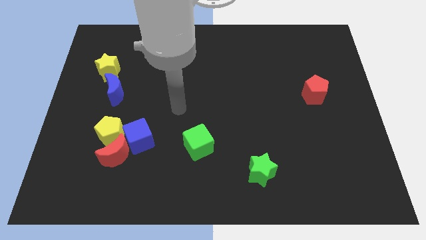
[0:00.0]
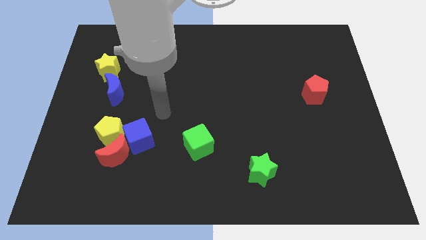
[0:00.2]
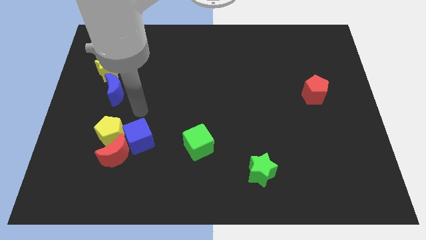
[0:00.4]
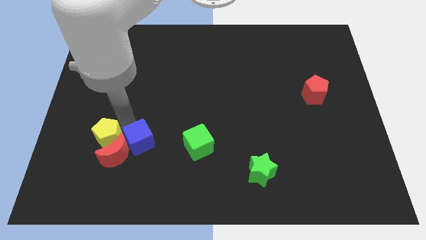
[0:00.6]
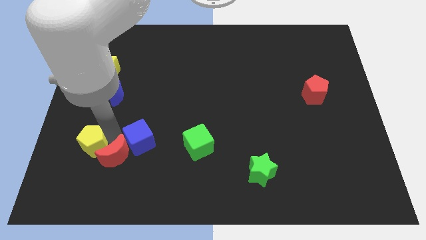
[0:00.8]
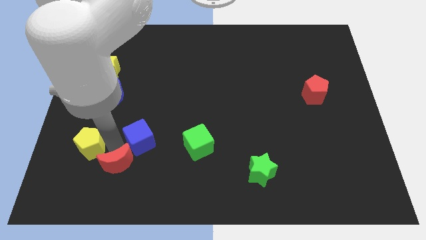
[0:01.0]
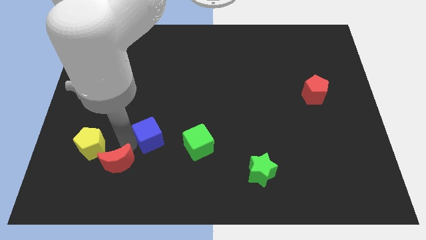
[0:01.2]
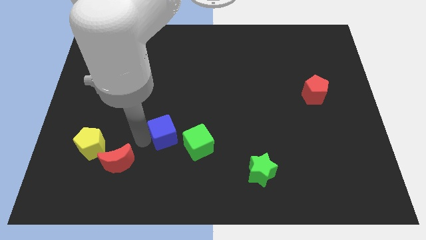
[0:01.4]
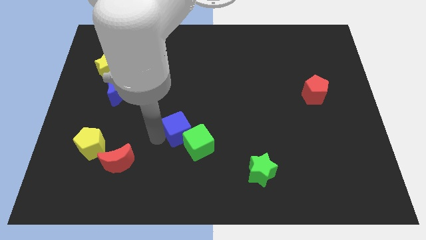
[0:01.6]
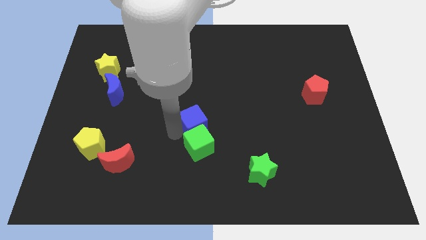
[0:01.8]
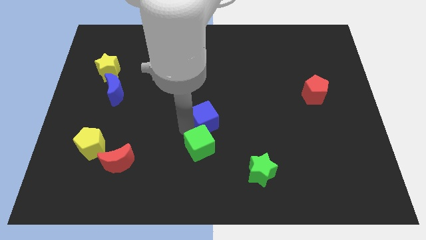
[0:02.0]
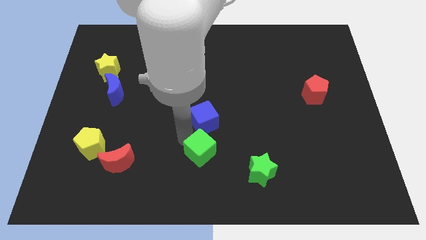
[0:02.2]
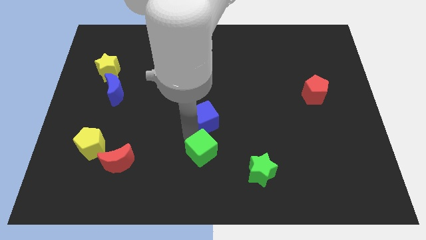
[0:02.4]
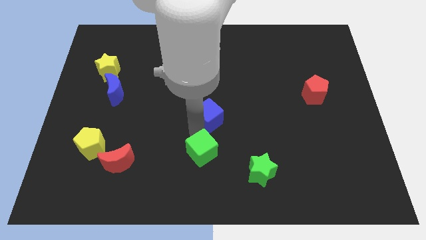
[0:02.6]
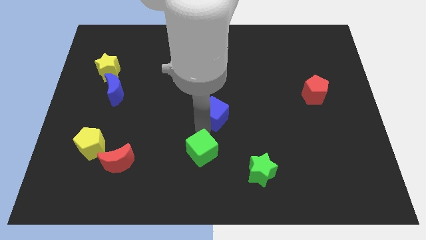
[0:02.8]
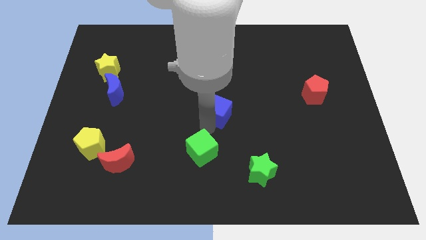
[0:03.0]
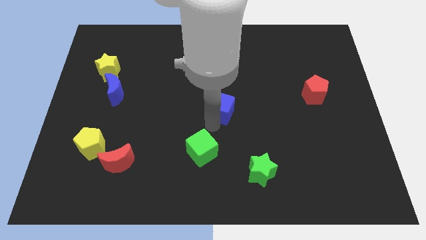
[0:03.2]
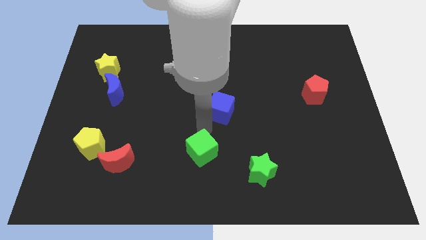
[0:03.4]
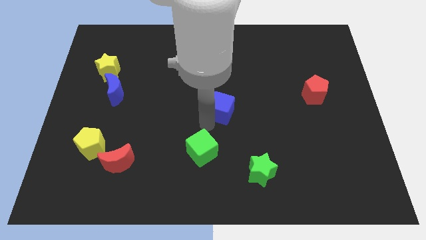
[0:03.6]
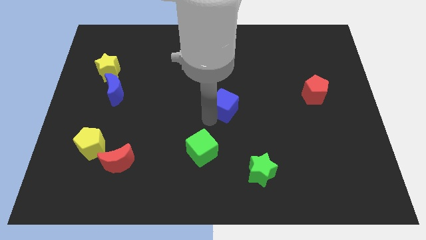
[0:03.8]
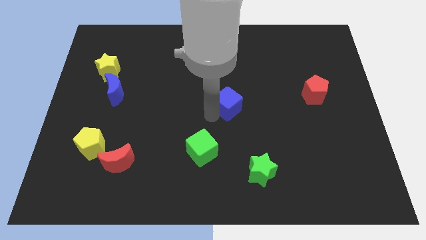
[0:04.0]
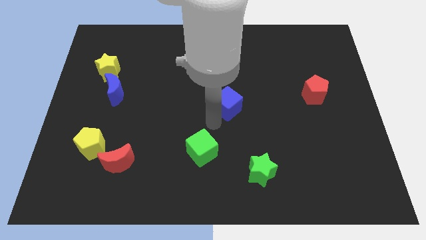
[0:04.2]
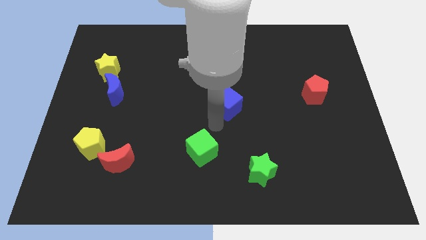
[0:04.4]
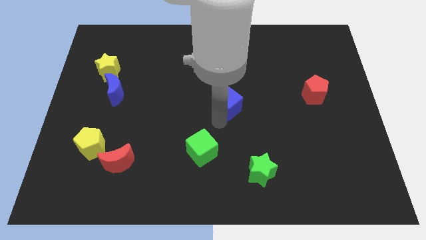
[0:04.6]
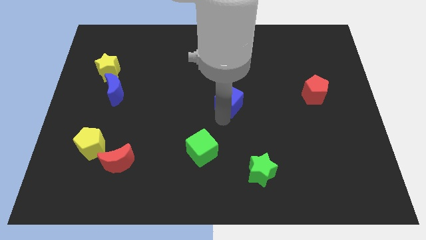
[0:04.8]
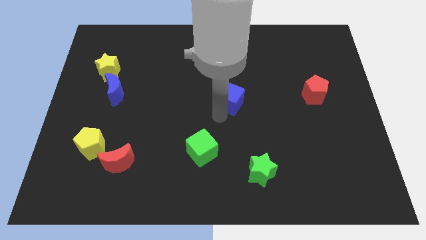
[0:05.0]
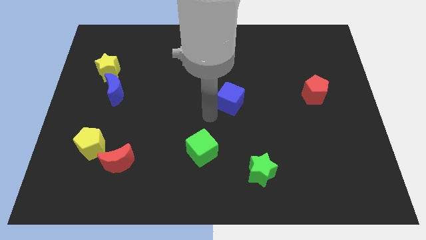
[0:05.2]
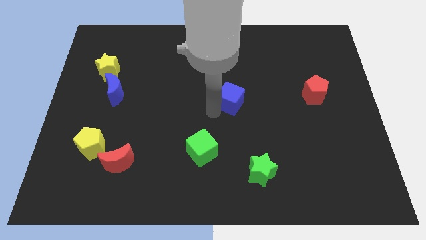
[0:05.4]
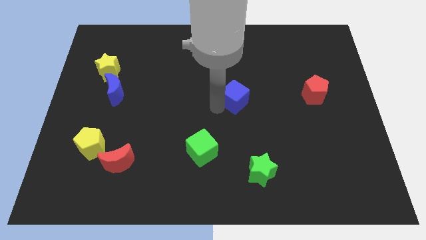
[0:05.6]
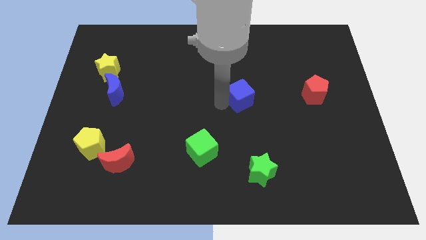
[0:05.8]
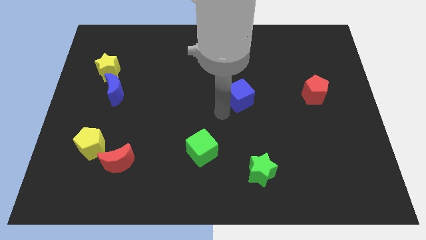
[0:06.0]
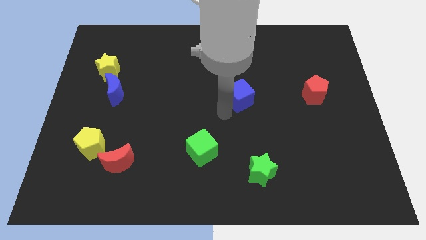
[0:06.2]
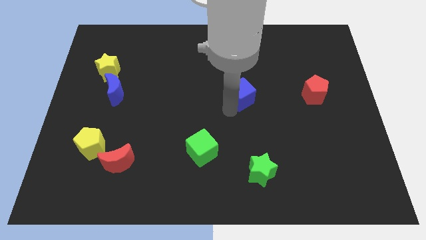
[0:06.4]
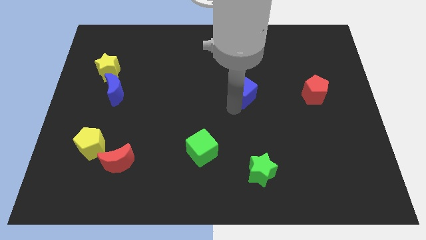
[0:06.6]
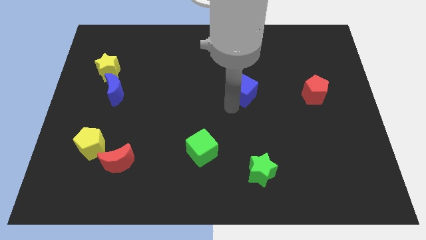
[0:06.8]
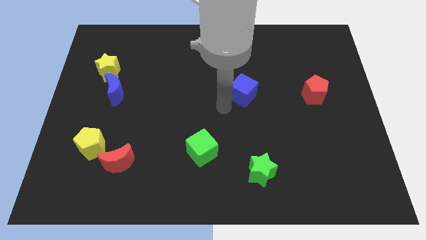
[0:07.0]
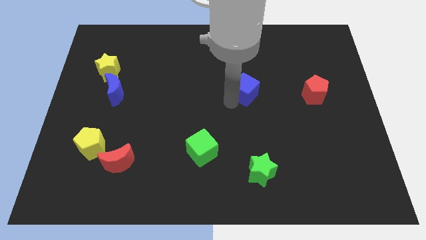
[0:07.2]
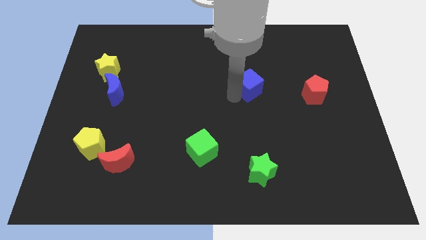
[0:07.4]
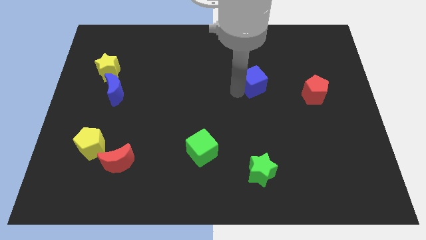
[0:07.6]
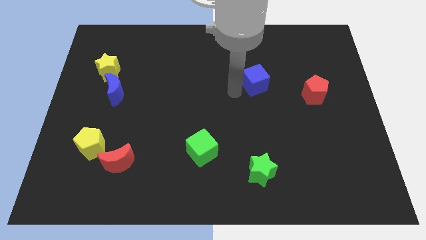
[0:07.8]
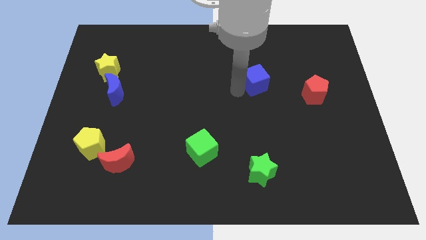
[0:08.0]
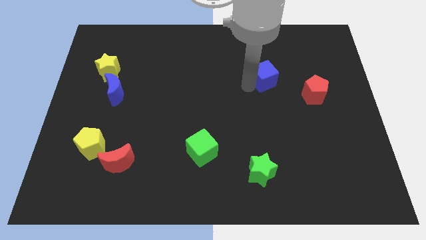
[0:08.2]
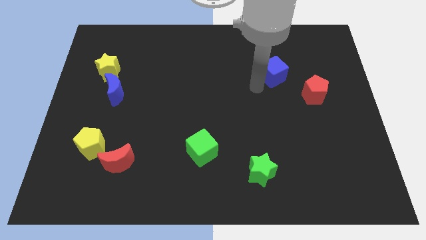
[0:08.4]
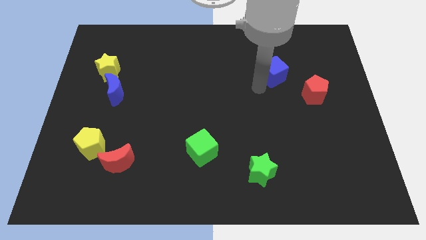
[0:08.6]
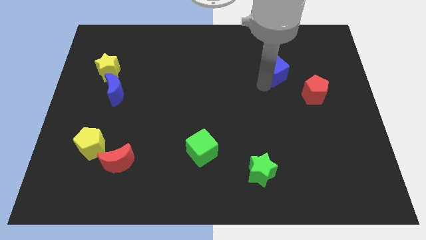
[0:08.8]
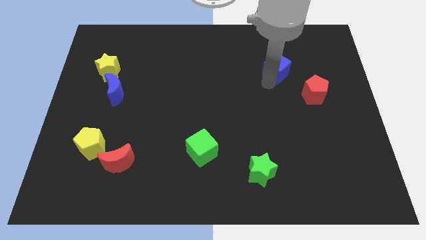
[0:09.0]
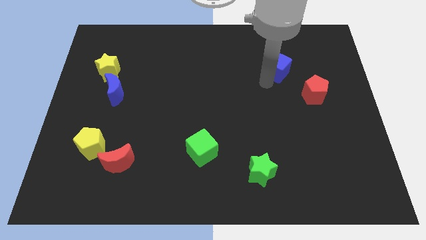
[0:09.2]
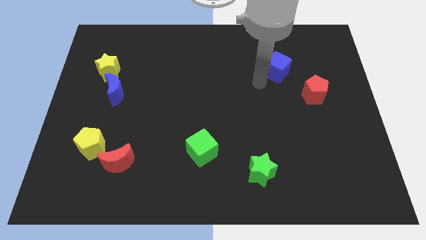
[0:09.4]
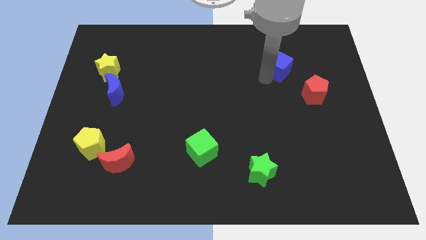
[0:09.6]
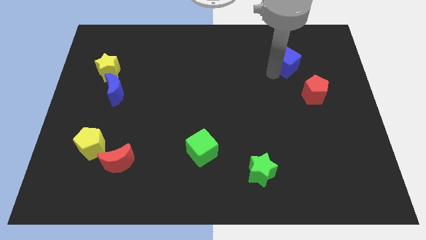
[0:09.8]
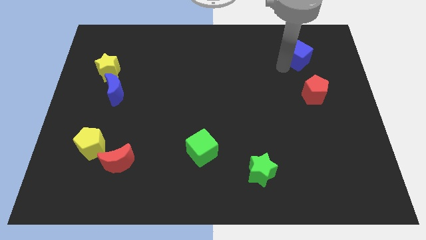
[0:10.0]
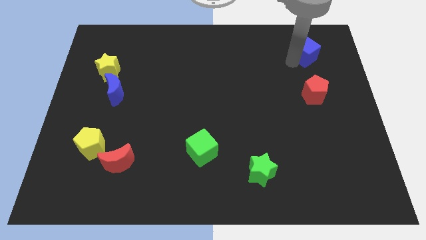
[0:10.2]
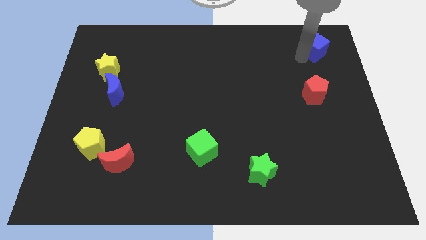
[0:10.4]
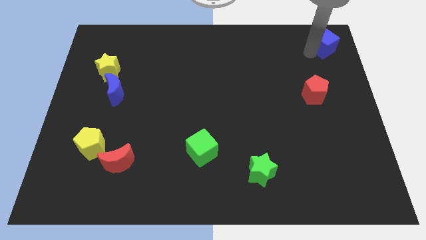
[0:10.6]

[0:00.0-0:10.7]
slide the blue cube to the top right corner

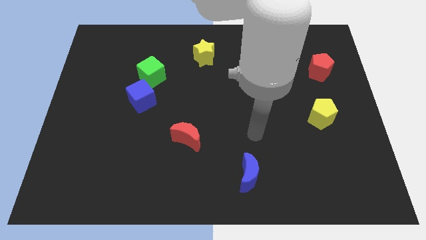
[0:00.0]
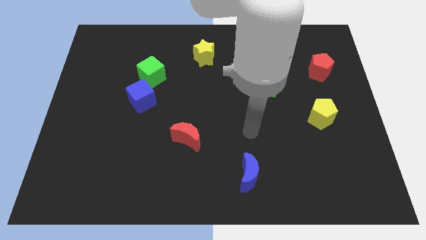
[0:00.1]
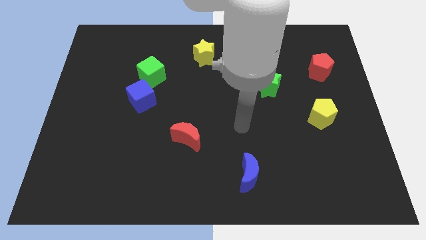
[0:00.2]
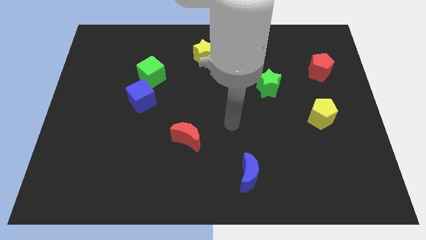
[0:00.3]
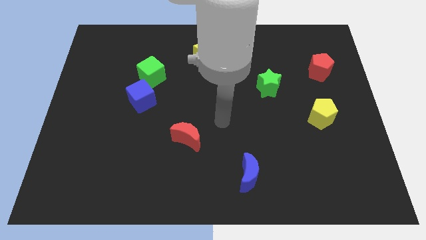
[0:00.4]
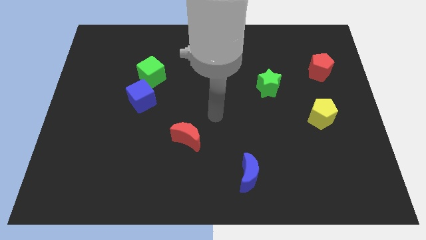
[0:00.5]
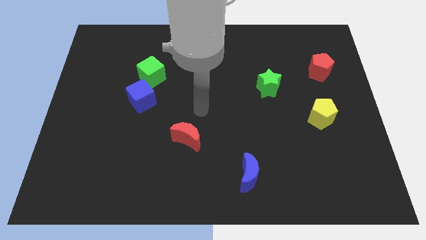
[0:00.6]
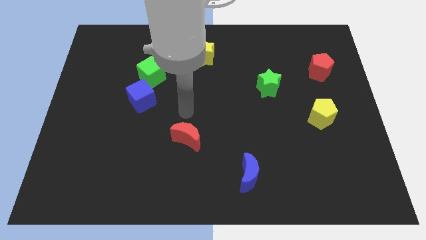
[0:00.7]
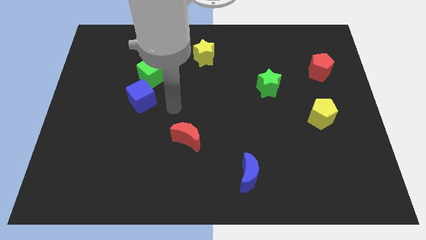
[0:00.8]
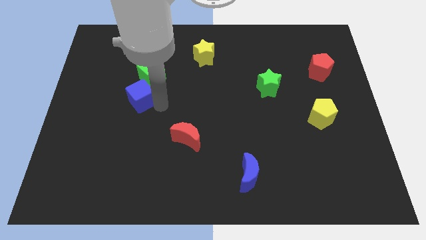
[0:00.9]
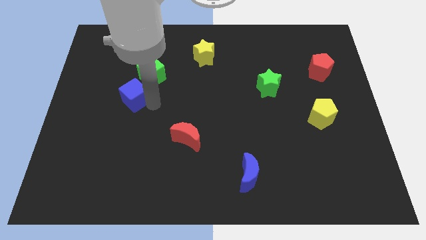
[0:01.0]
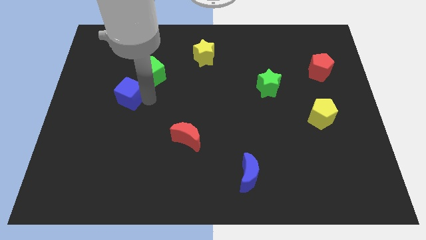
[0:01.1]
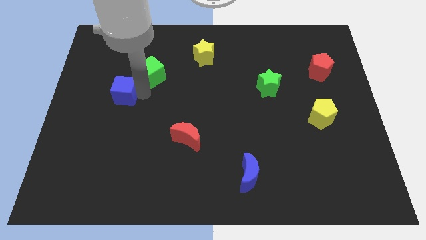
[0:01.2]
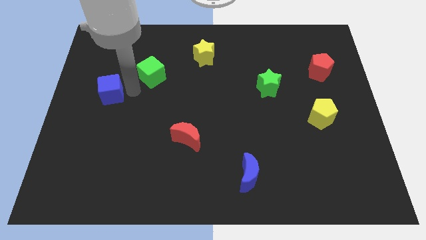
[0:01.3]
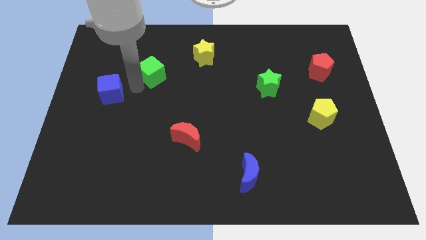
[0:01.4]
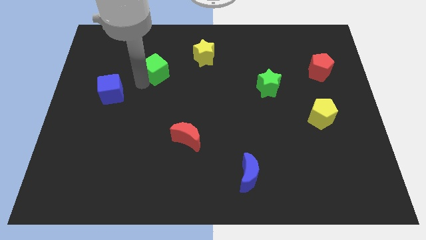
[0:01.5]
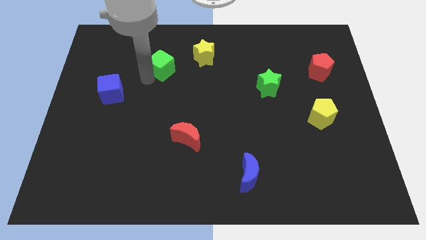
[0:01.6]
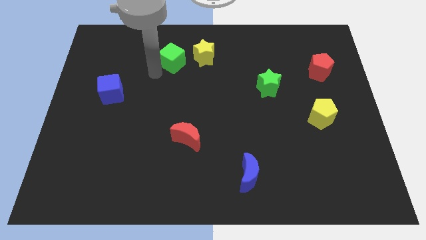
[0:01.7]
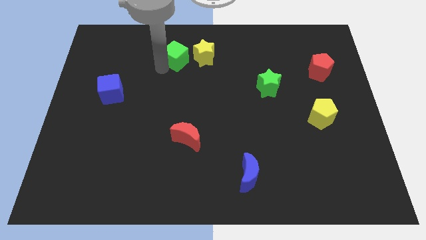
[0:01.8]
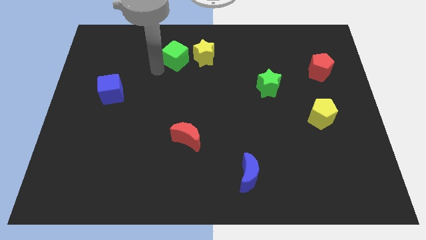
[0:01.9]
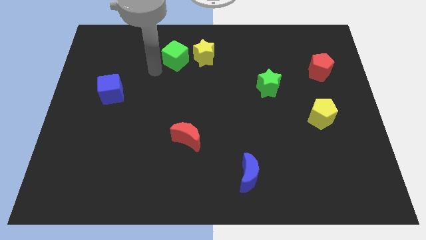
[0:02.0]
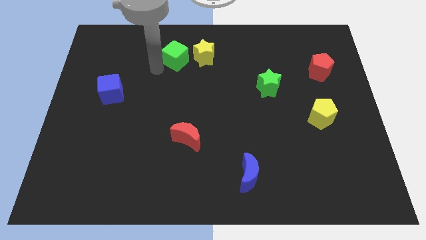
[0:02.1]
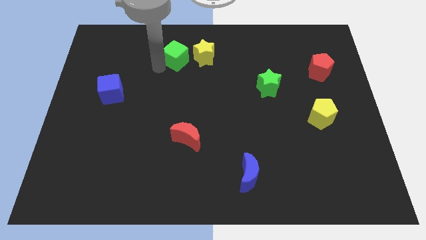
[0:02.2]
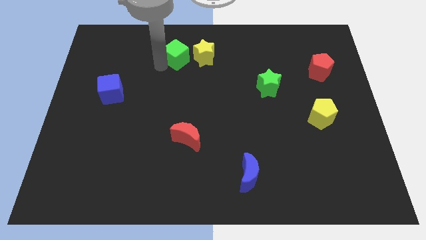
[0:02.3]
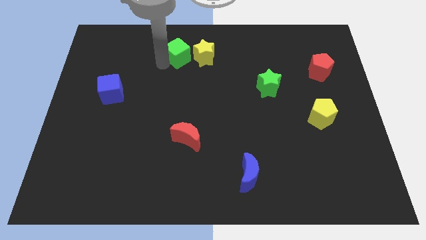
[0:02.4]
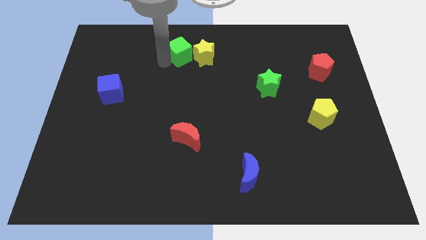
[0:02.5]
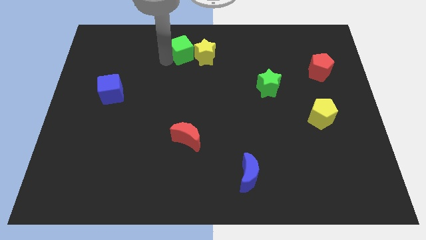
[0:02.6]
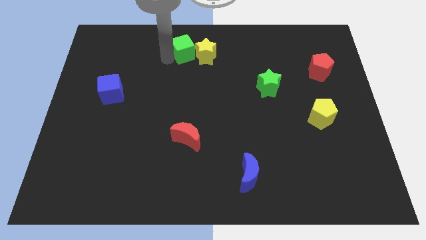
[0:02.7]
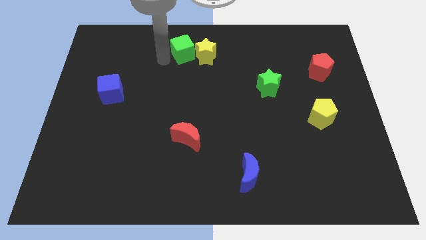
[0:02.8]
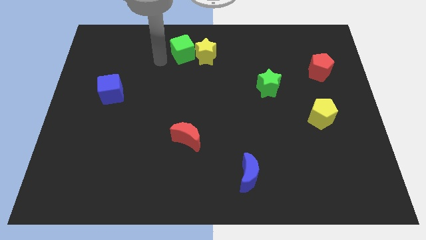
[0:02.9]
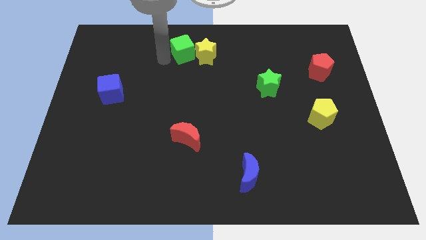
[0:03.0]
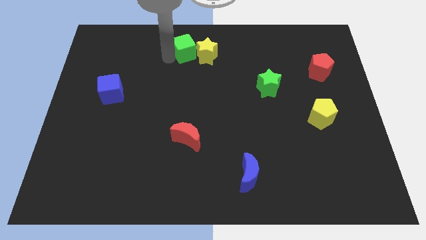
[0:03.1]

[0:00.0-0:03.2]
slide the green cube to the towards your base
